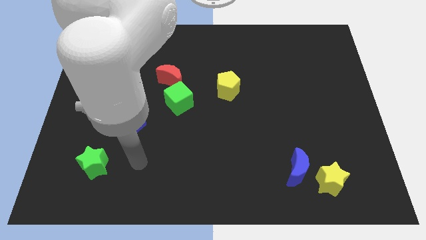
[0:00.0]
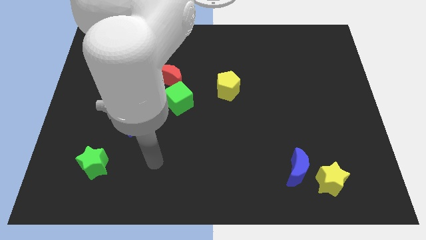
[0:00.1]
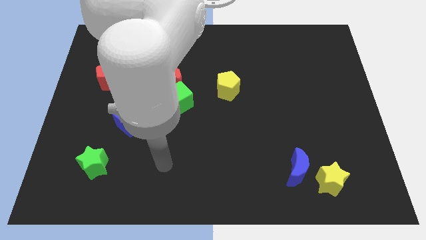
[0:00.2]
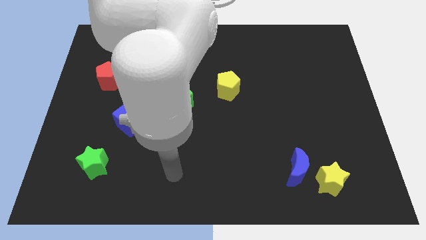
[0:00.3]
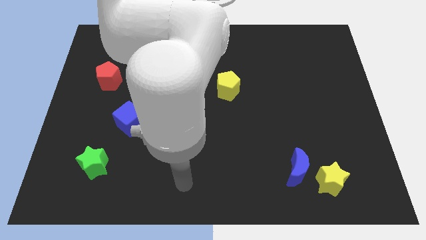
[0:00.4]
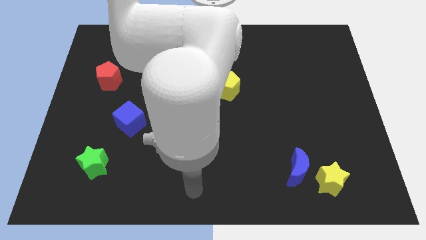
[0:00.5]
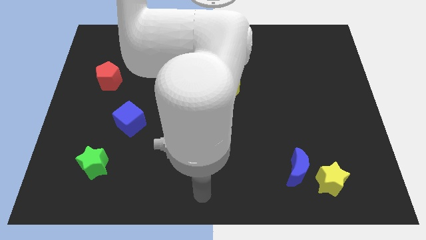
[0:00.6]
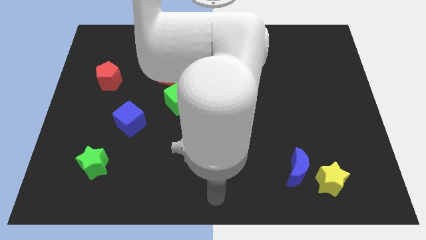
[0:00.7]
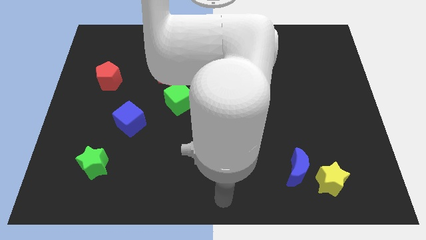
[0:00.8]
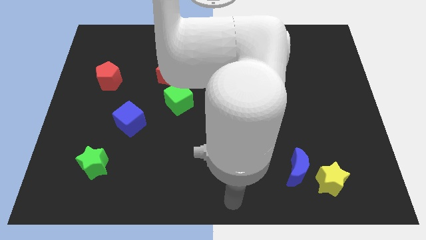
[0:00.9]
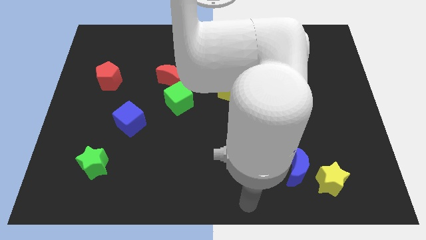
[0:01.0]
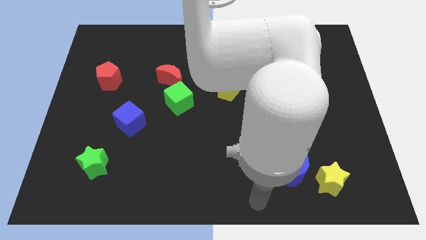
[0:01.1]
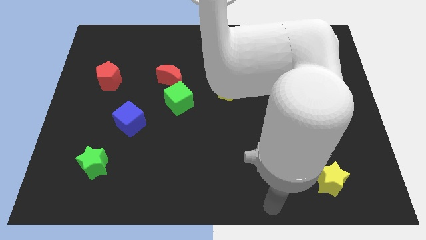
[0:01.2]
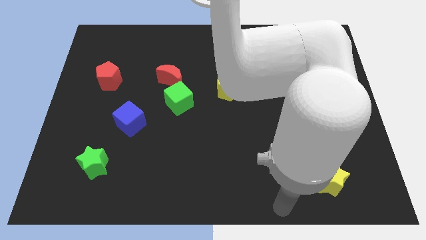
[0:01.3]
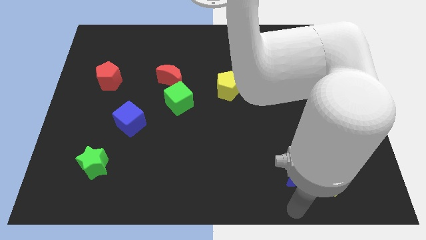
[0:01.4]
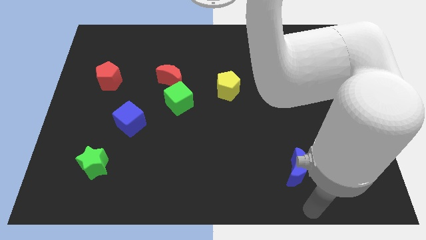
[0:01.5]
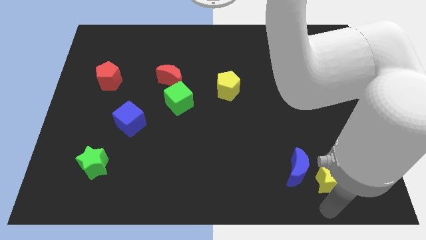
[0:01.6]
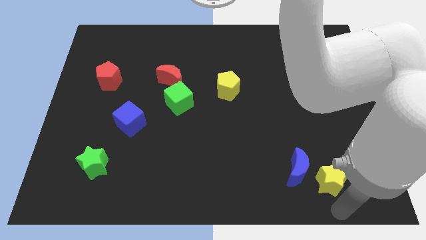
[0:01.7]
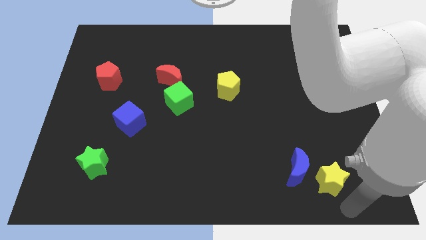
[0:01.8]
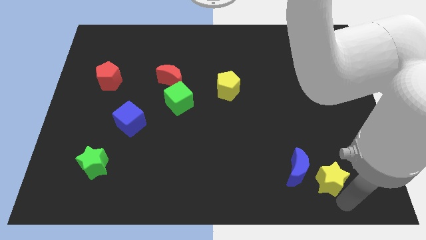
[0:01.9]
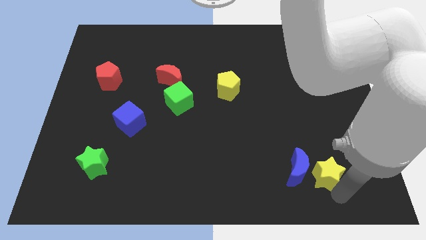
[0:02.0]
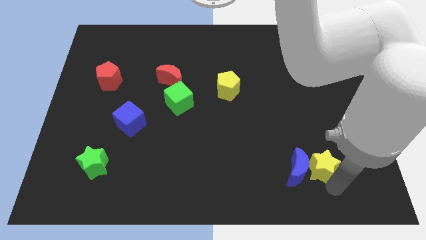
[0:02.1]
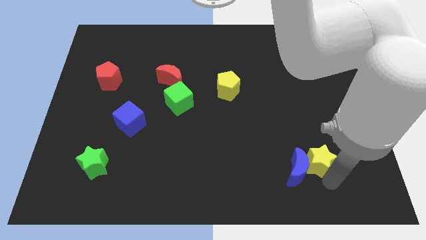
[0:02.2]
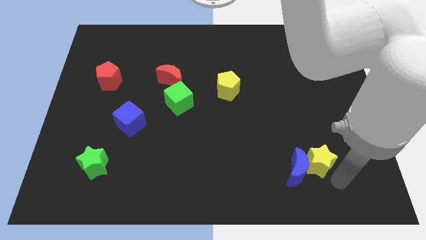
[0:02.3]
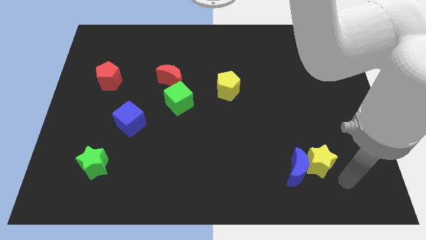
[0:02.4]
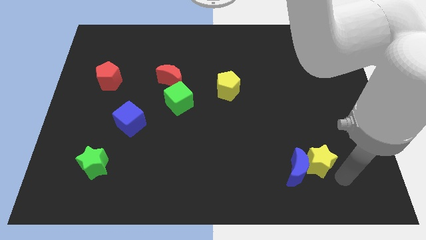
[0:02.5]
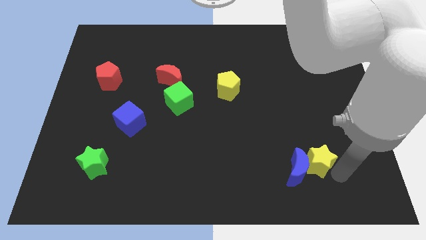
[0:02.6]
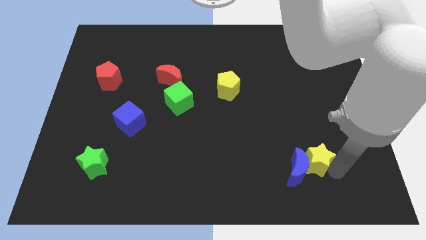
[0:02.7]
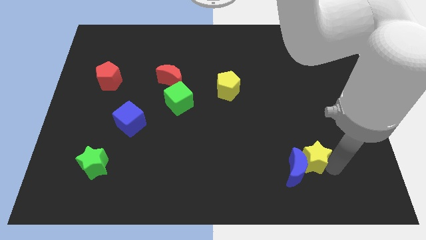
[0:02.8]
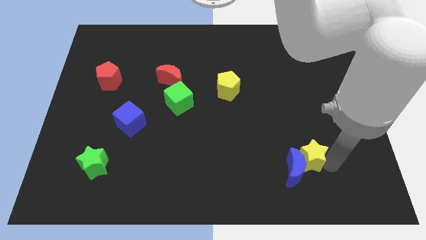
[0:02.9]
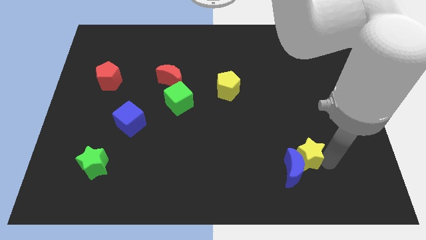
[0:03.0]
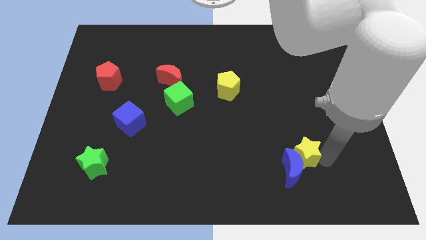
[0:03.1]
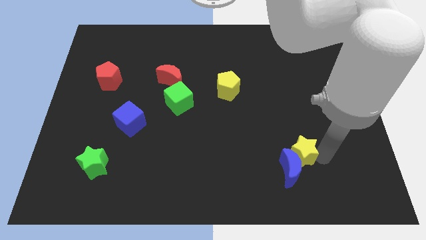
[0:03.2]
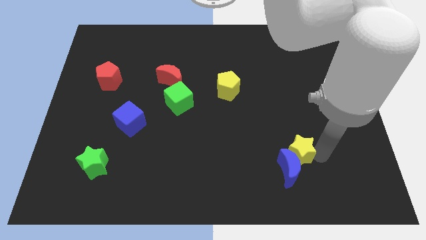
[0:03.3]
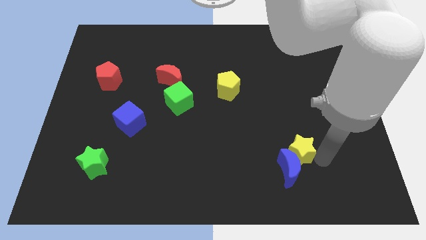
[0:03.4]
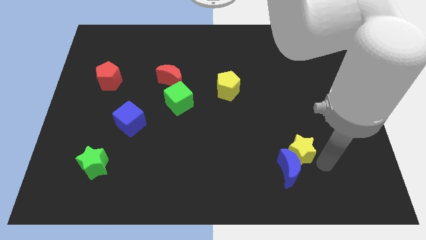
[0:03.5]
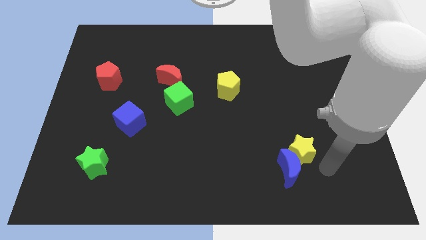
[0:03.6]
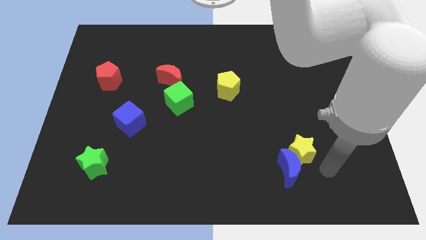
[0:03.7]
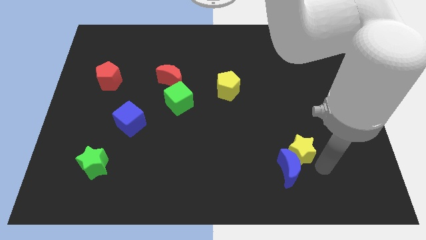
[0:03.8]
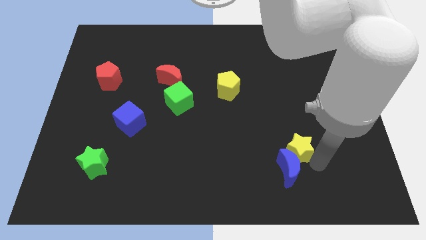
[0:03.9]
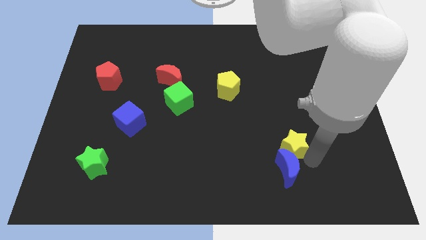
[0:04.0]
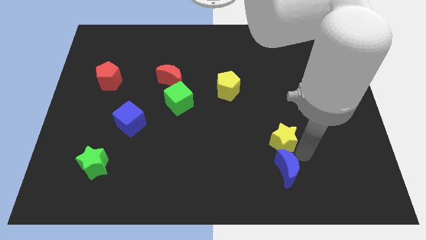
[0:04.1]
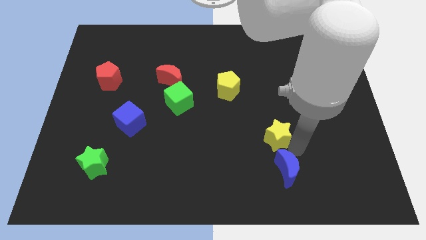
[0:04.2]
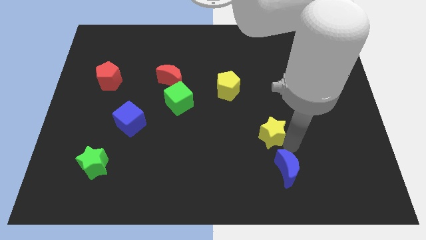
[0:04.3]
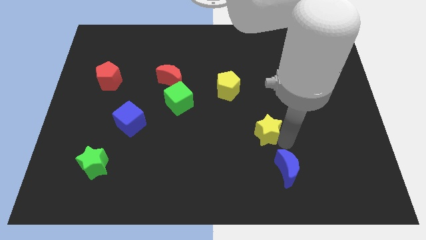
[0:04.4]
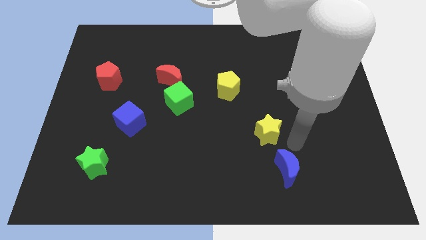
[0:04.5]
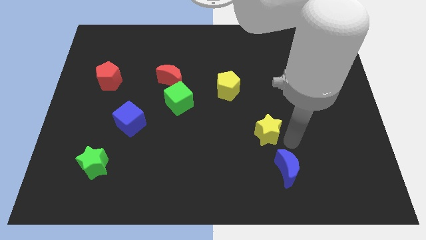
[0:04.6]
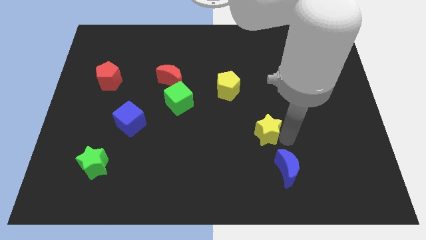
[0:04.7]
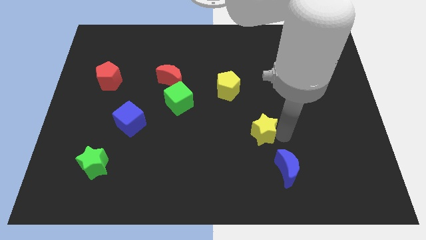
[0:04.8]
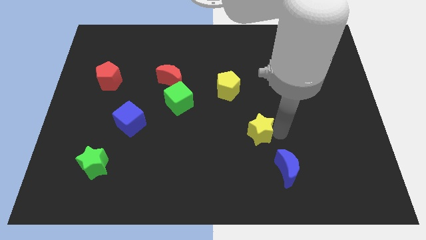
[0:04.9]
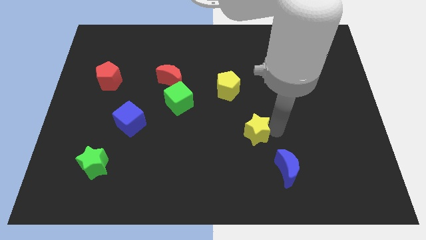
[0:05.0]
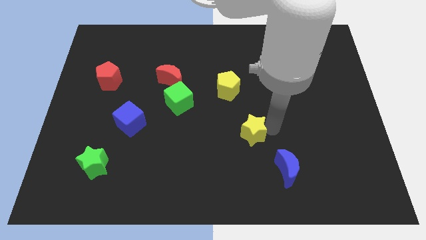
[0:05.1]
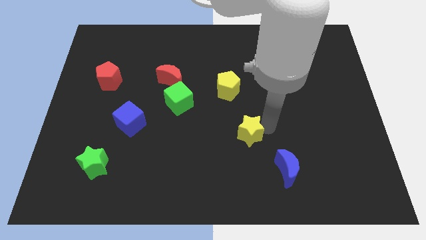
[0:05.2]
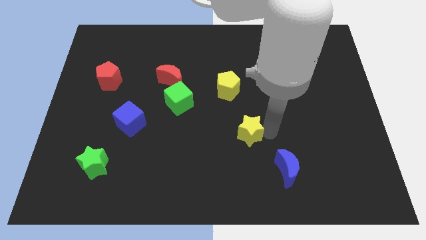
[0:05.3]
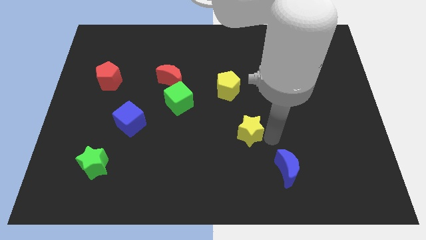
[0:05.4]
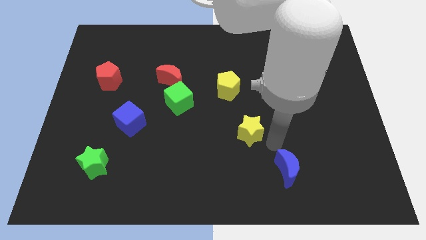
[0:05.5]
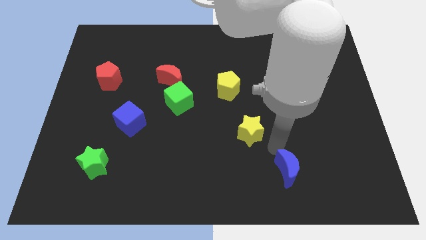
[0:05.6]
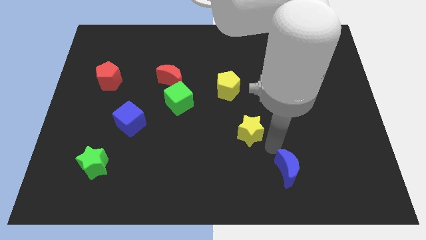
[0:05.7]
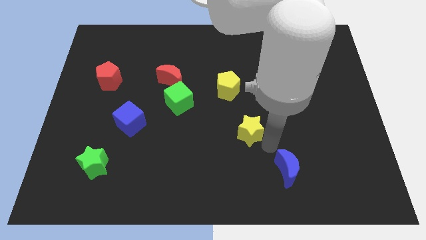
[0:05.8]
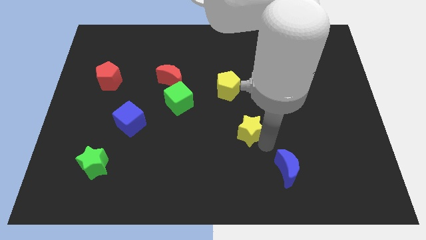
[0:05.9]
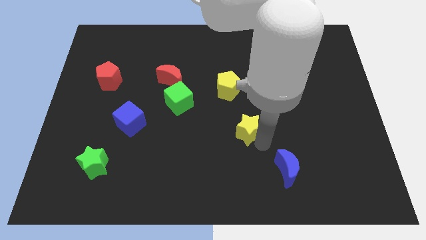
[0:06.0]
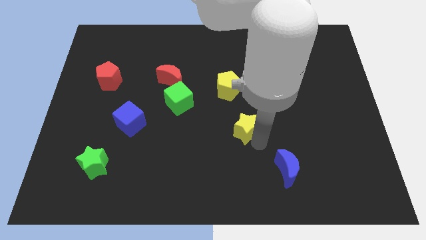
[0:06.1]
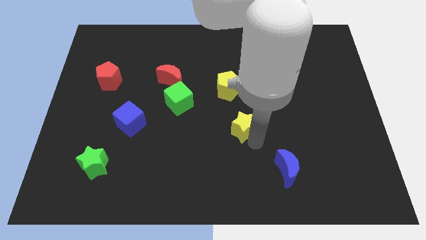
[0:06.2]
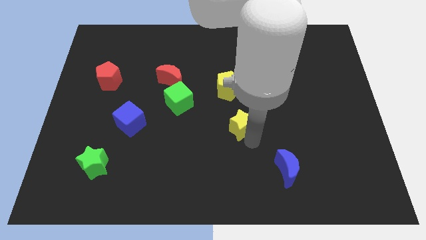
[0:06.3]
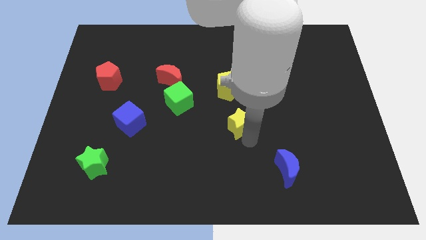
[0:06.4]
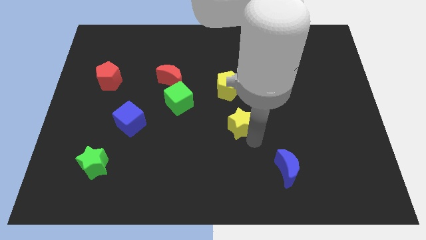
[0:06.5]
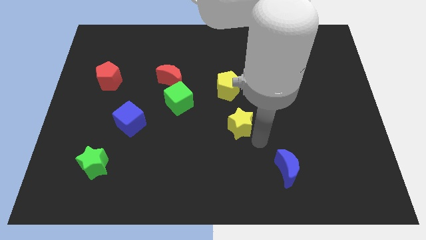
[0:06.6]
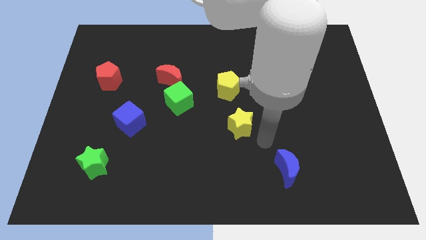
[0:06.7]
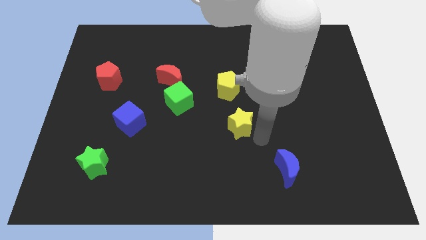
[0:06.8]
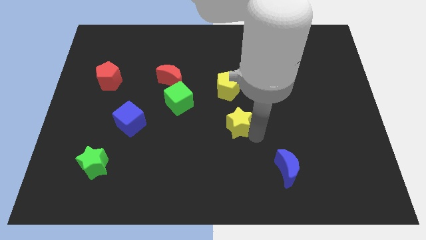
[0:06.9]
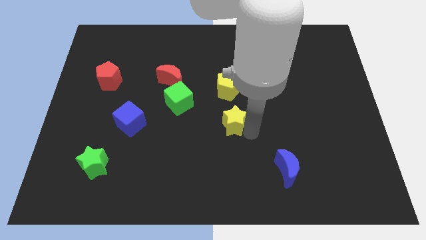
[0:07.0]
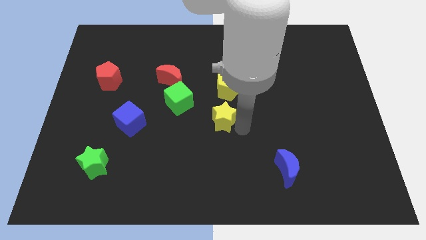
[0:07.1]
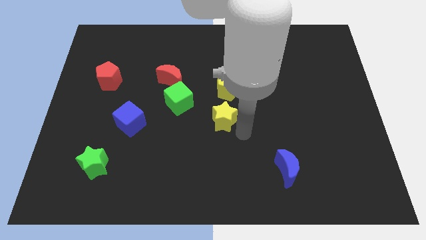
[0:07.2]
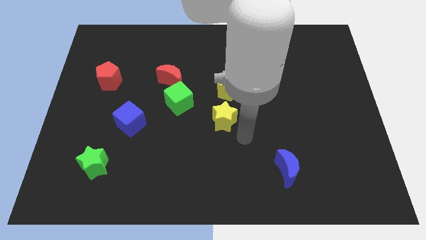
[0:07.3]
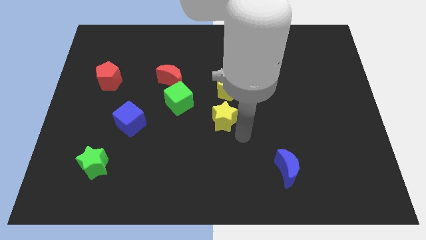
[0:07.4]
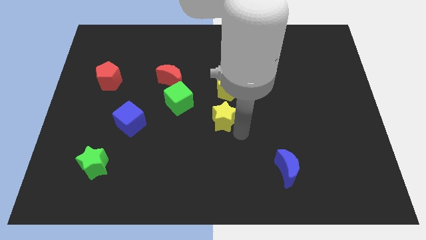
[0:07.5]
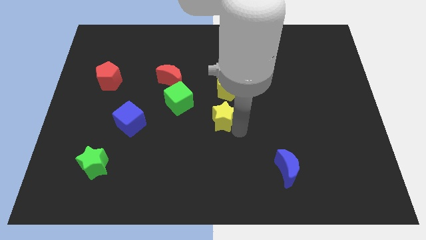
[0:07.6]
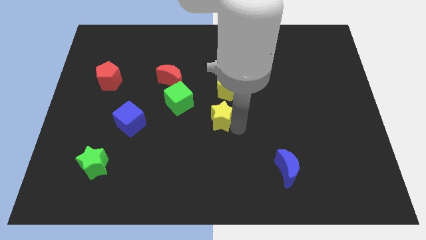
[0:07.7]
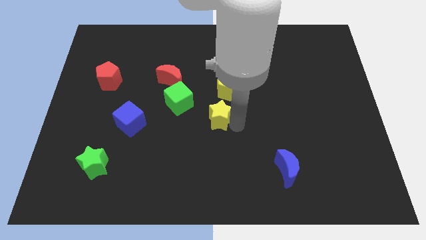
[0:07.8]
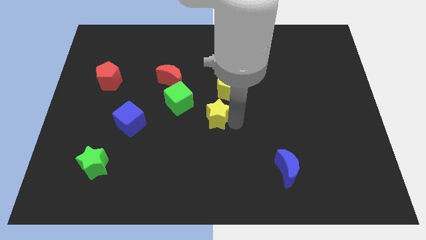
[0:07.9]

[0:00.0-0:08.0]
move the yellow star diagonally down and to the left of the yellow pentagon
